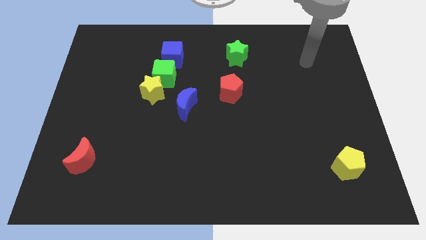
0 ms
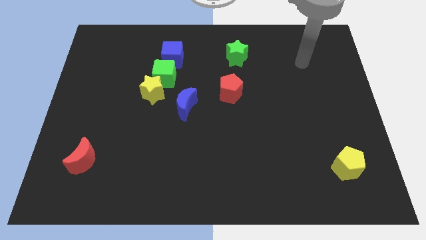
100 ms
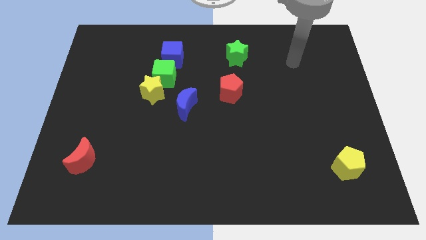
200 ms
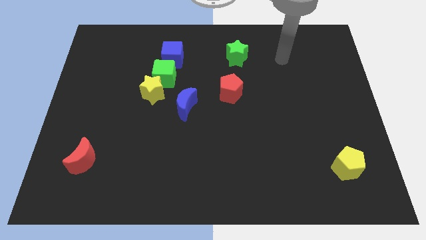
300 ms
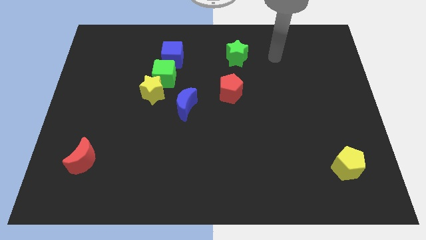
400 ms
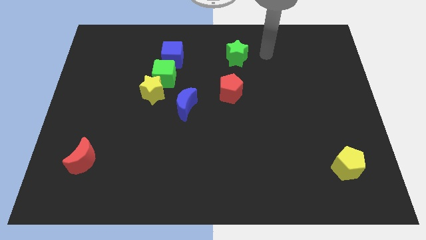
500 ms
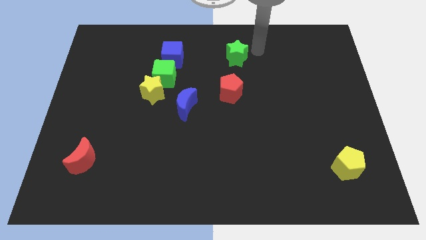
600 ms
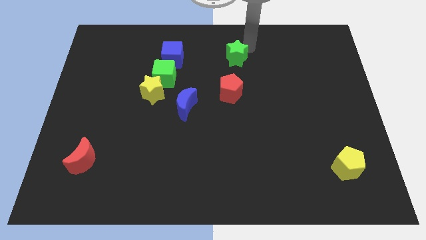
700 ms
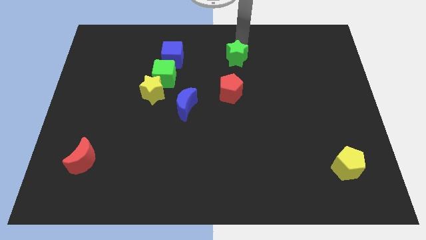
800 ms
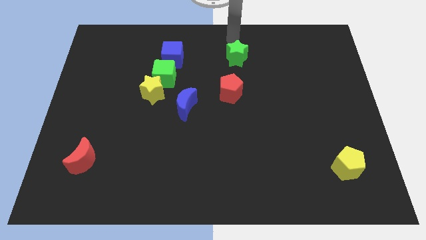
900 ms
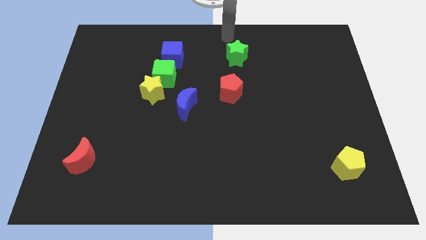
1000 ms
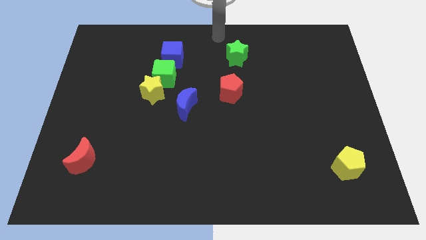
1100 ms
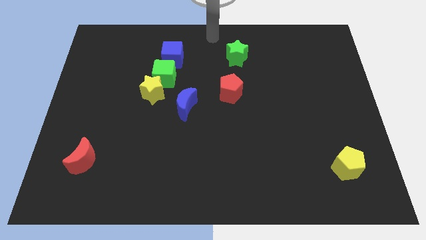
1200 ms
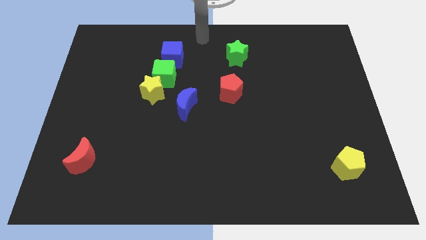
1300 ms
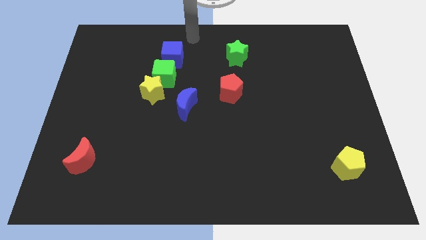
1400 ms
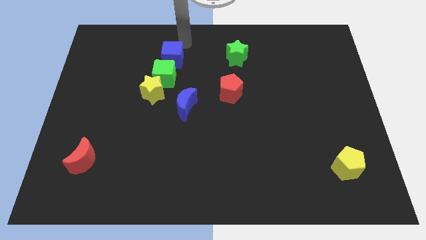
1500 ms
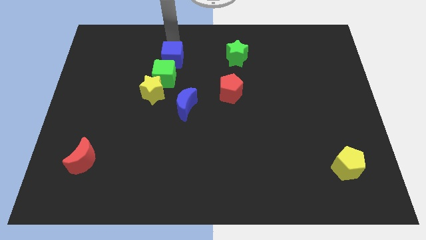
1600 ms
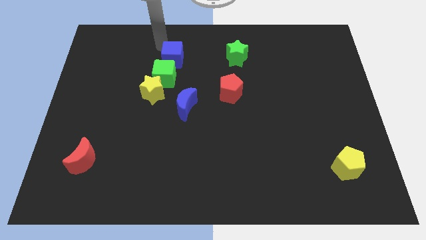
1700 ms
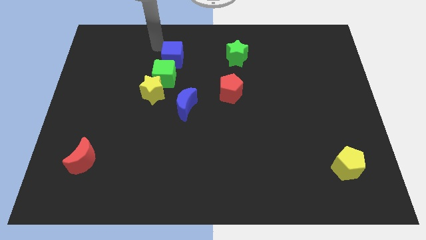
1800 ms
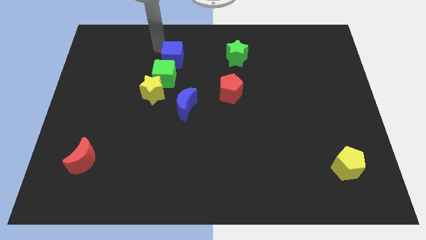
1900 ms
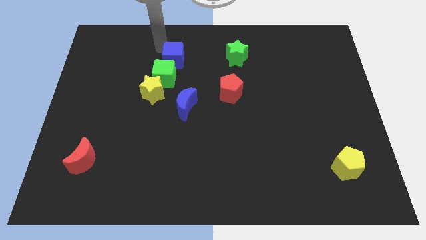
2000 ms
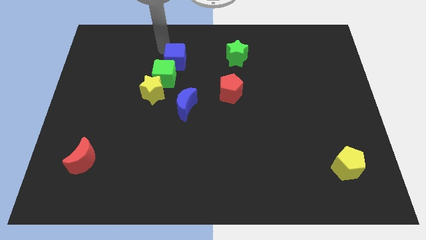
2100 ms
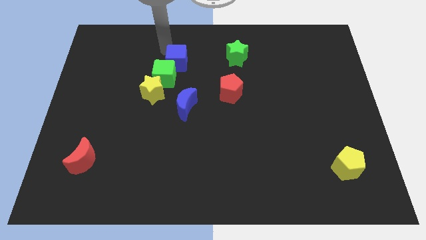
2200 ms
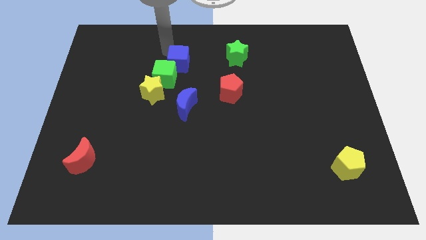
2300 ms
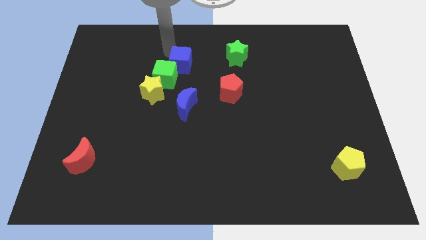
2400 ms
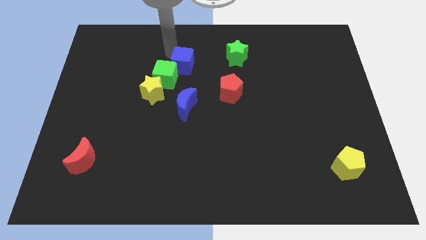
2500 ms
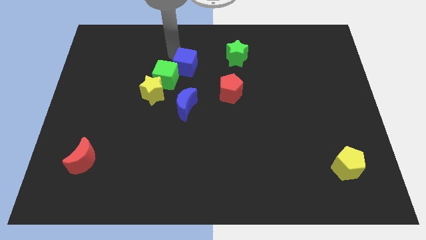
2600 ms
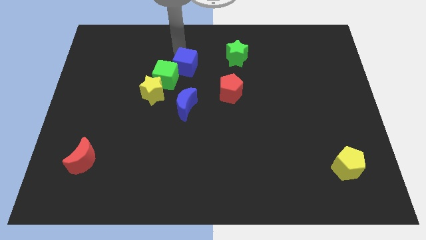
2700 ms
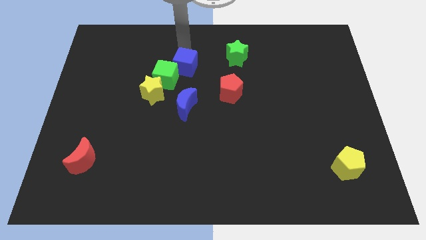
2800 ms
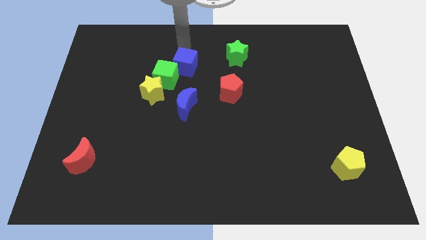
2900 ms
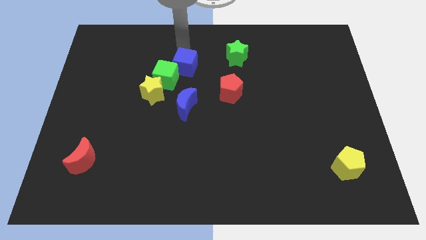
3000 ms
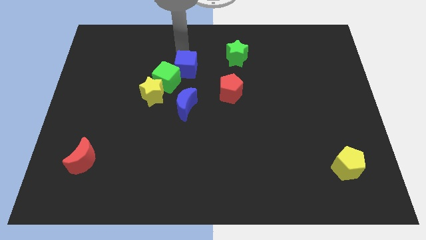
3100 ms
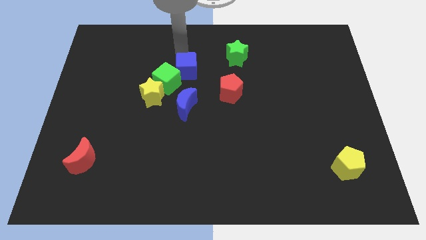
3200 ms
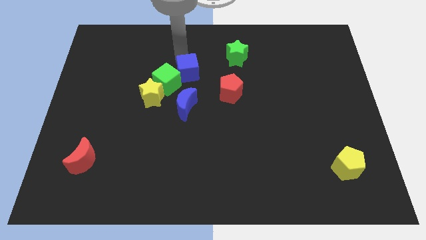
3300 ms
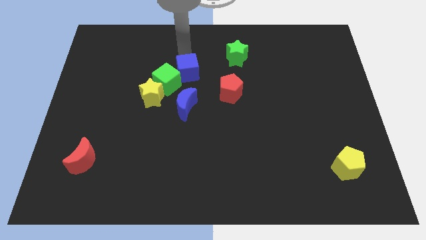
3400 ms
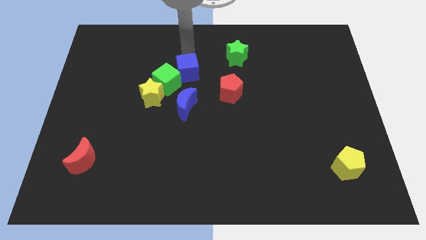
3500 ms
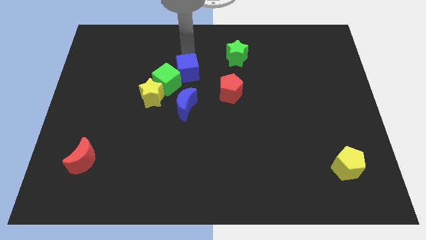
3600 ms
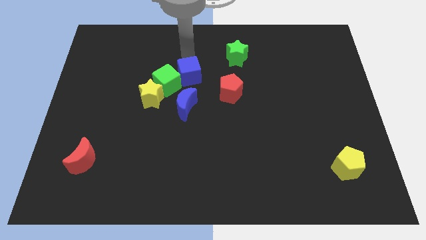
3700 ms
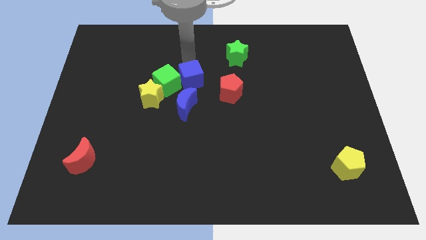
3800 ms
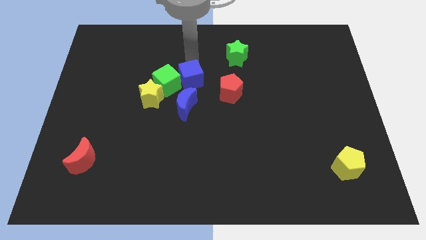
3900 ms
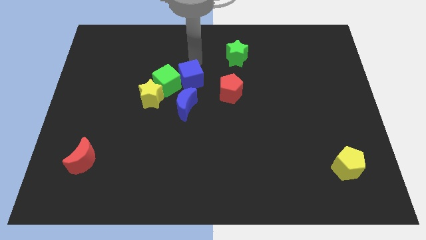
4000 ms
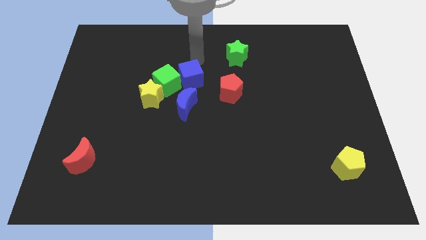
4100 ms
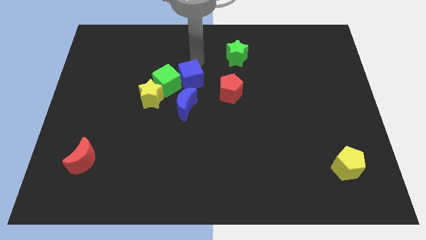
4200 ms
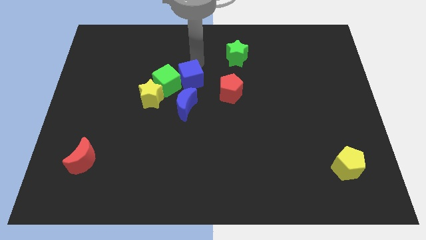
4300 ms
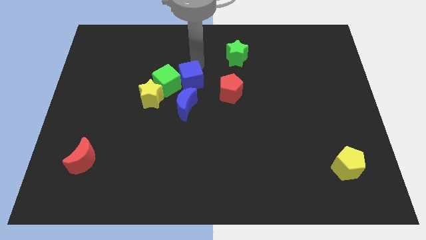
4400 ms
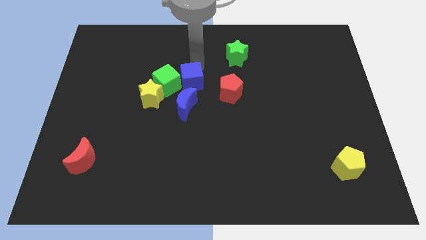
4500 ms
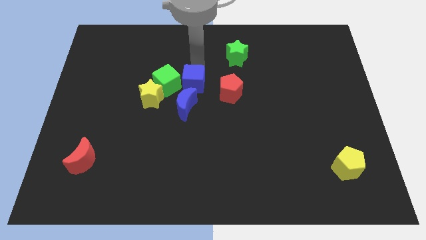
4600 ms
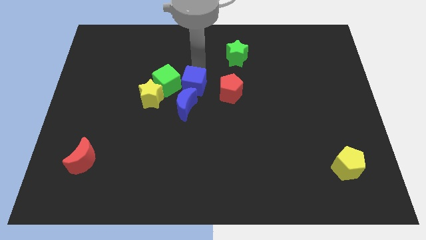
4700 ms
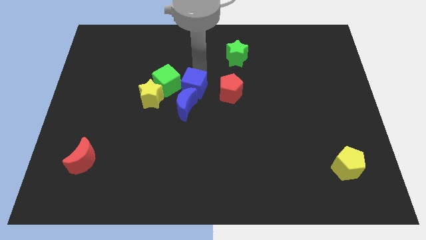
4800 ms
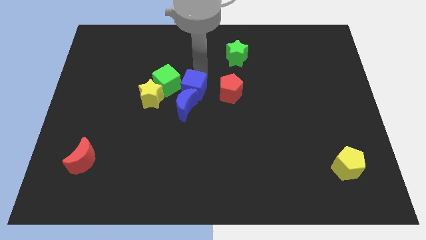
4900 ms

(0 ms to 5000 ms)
slide the blue cube close to the blue moon

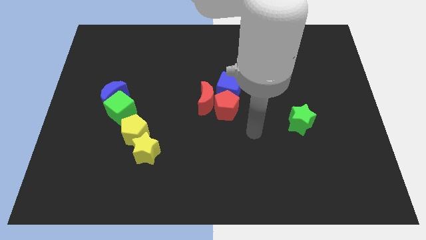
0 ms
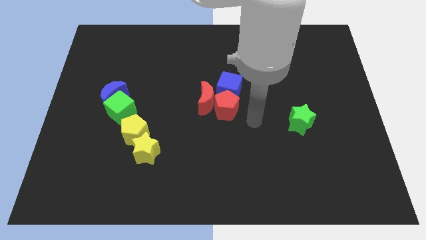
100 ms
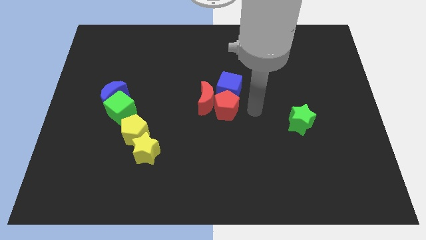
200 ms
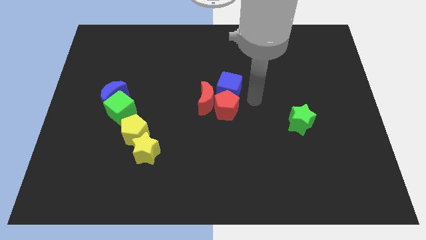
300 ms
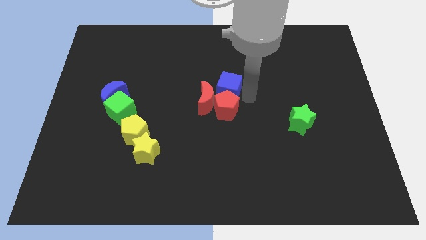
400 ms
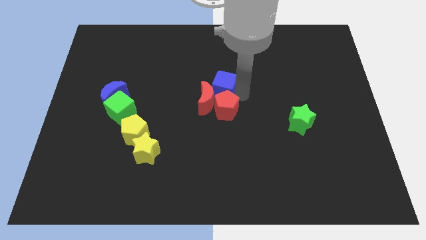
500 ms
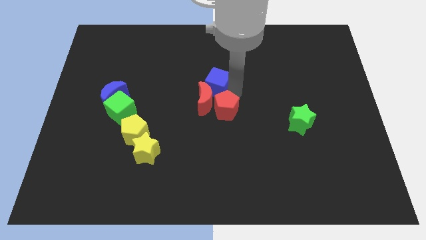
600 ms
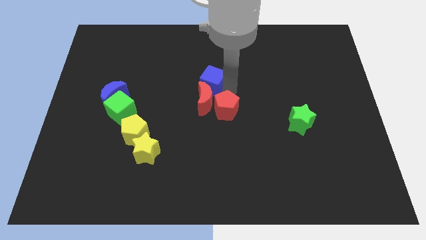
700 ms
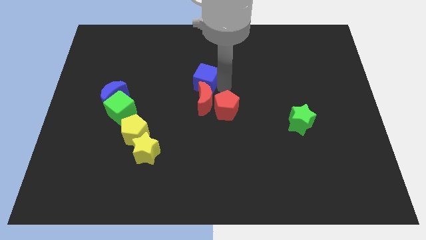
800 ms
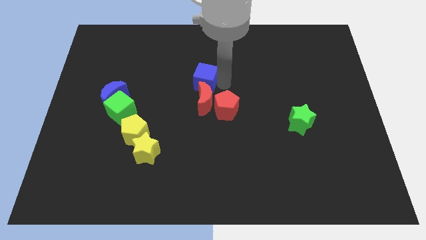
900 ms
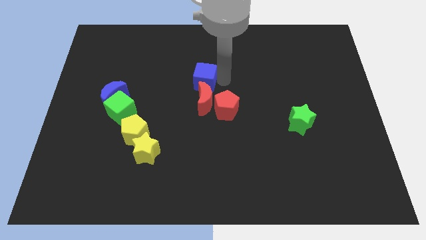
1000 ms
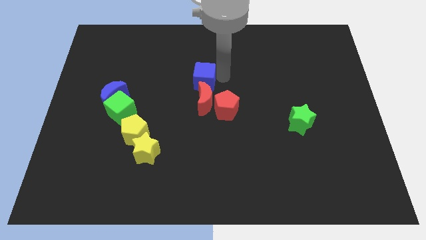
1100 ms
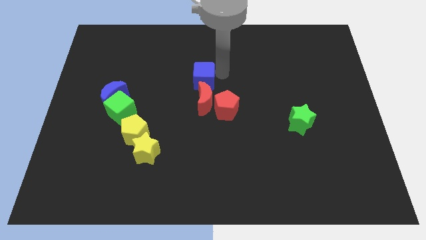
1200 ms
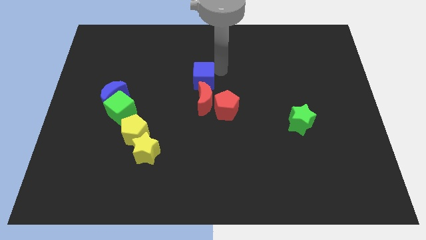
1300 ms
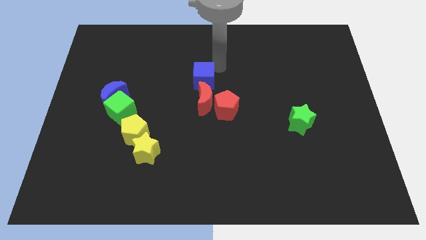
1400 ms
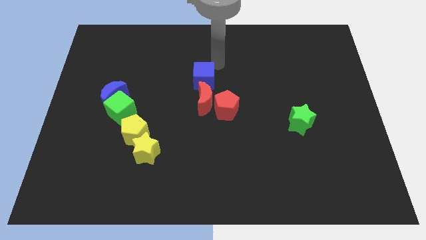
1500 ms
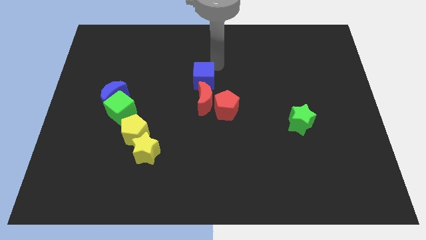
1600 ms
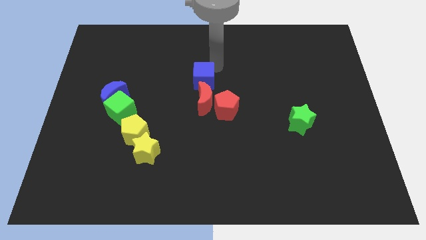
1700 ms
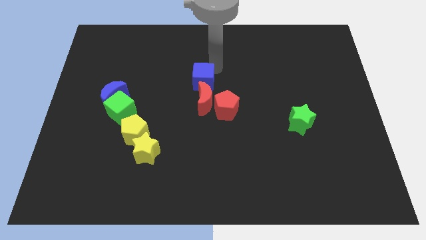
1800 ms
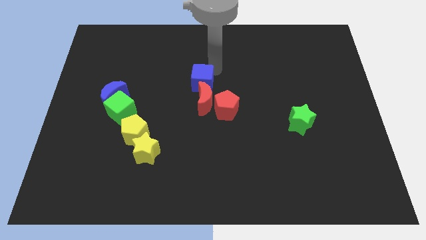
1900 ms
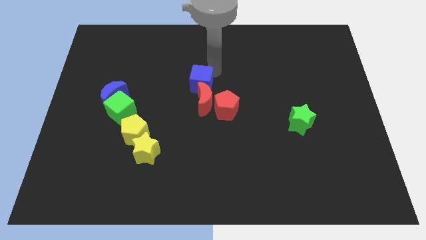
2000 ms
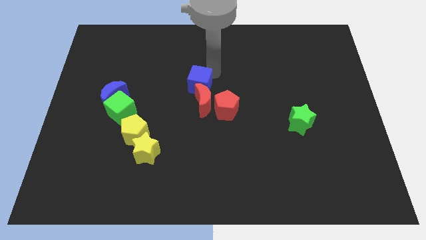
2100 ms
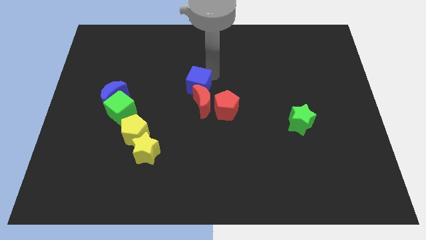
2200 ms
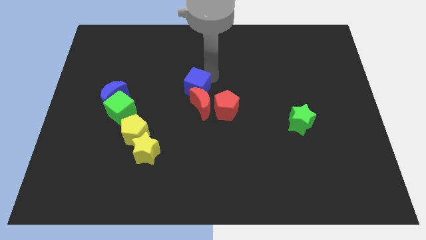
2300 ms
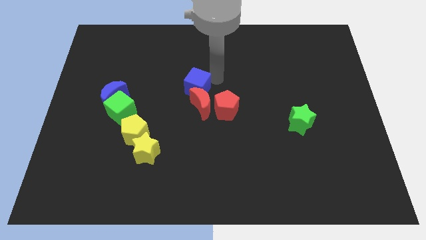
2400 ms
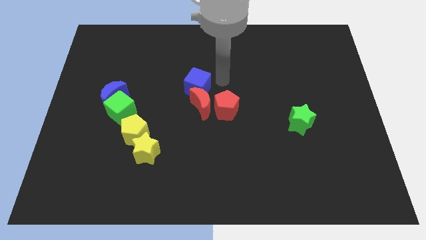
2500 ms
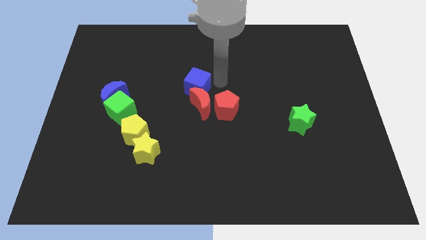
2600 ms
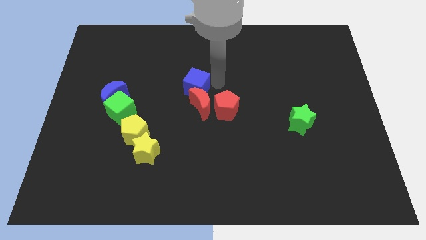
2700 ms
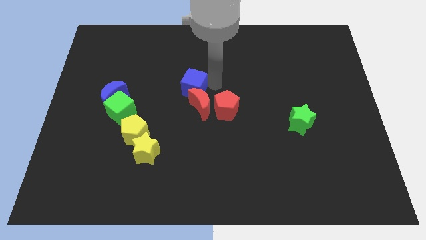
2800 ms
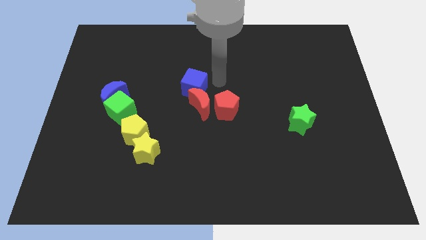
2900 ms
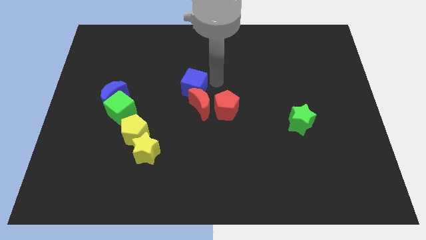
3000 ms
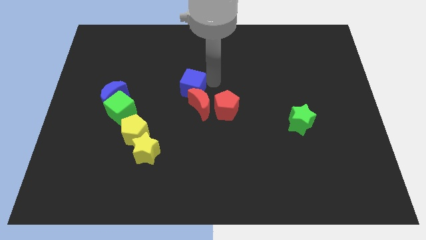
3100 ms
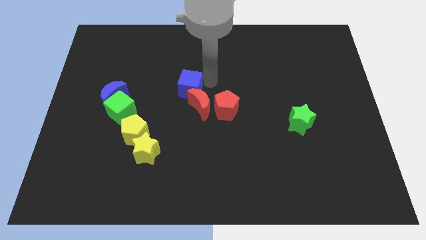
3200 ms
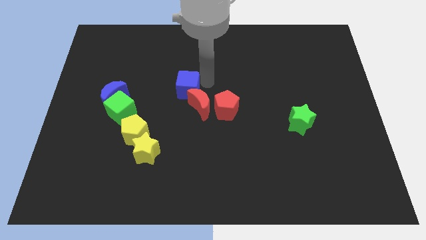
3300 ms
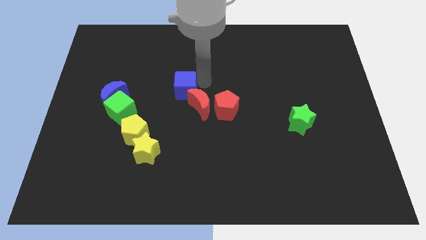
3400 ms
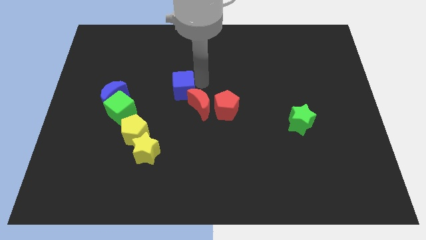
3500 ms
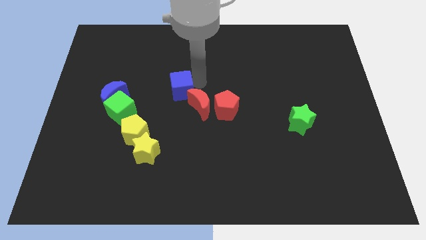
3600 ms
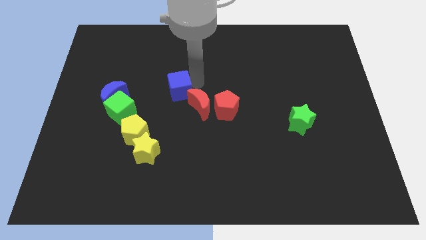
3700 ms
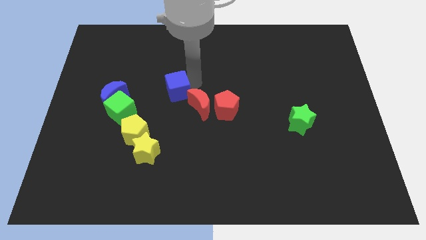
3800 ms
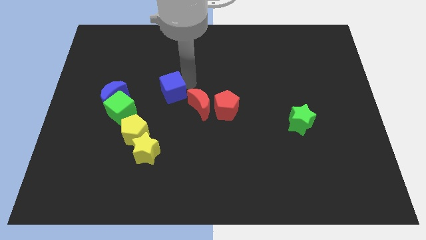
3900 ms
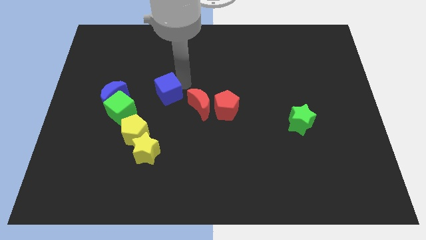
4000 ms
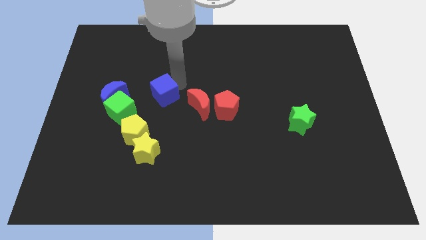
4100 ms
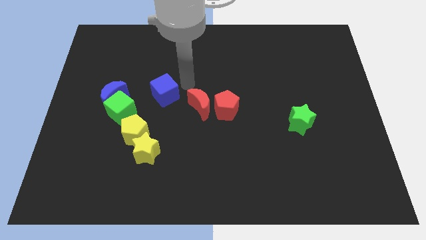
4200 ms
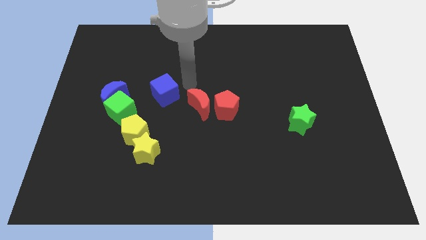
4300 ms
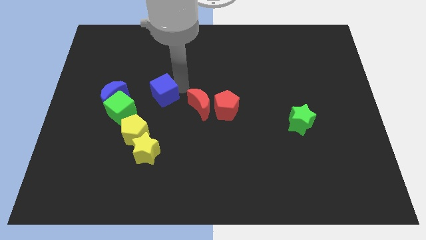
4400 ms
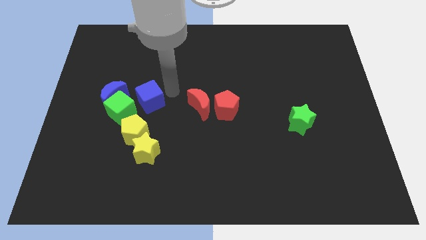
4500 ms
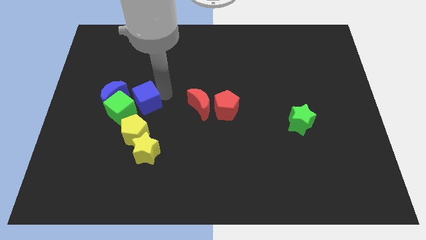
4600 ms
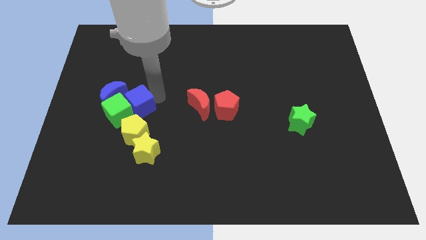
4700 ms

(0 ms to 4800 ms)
move the blue cube close to the green cube
